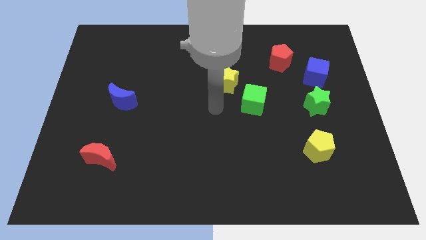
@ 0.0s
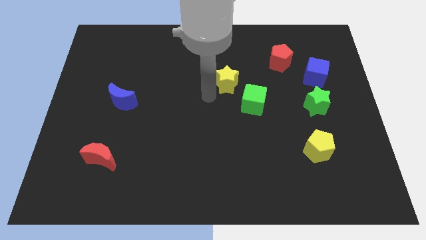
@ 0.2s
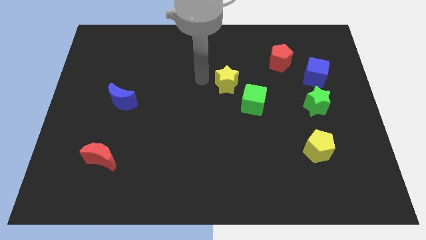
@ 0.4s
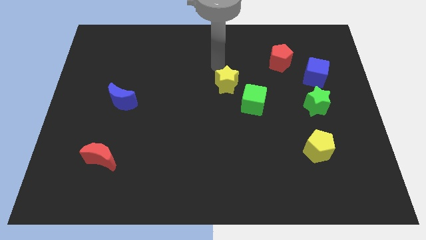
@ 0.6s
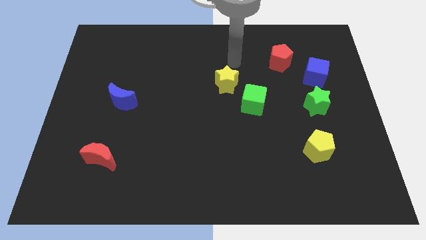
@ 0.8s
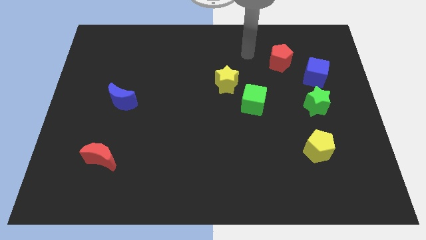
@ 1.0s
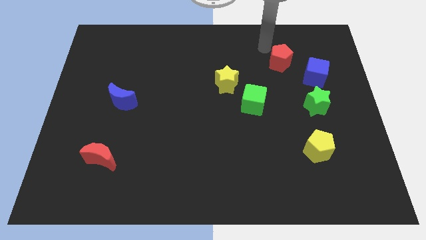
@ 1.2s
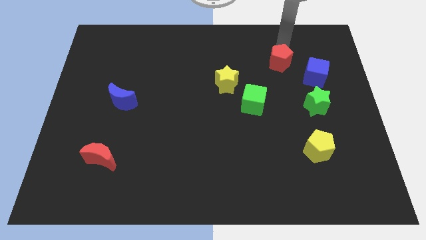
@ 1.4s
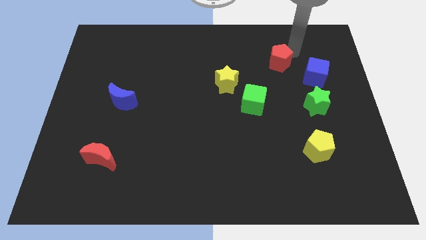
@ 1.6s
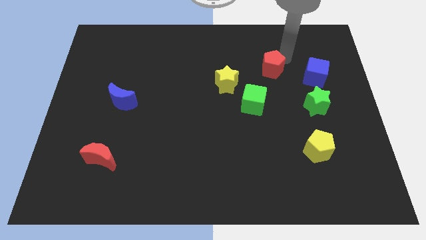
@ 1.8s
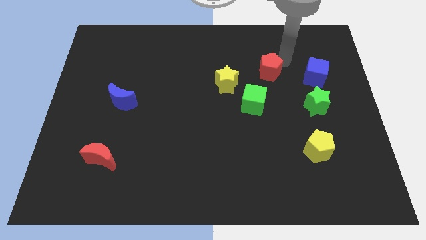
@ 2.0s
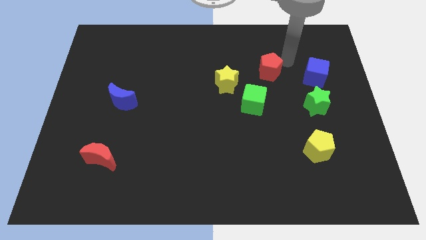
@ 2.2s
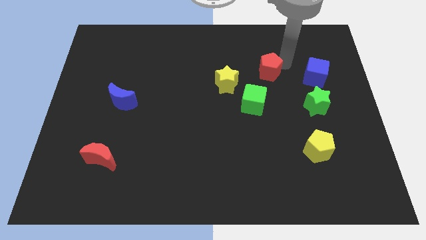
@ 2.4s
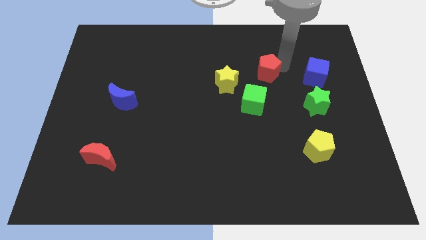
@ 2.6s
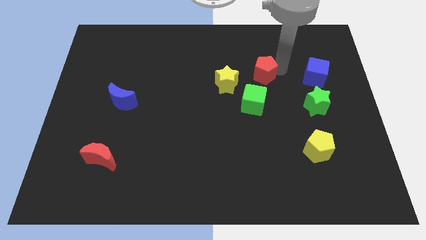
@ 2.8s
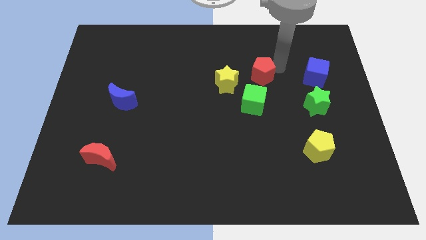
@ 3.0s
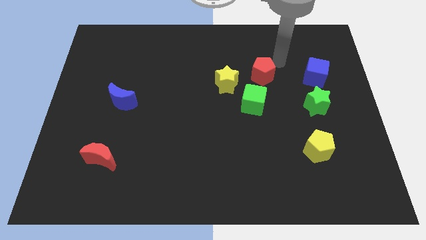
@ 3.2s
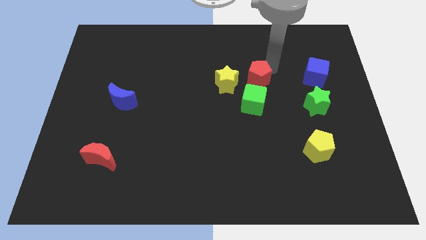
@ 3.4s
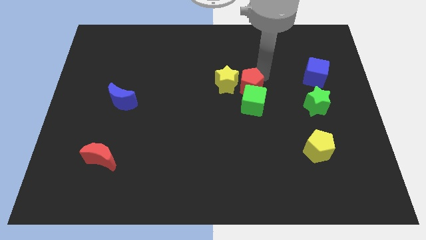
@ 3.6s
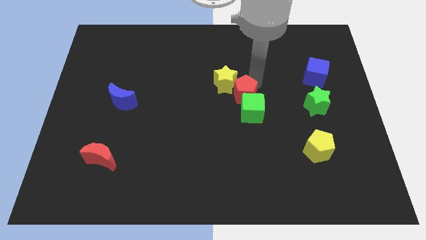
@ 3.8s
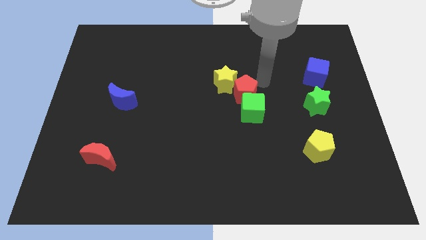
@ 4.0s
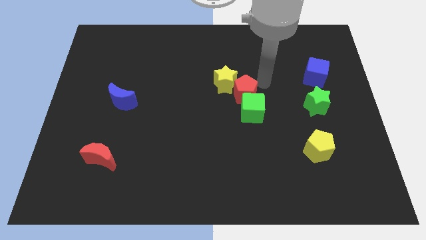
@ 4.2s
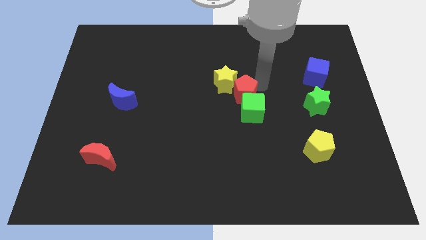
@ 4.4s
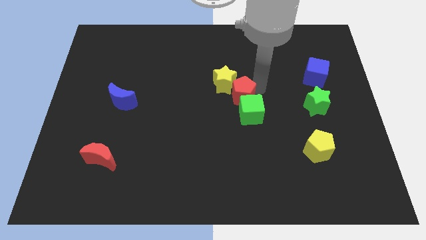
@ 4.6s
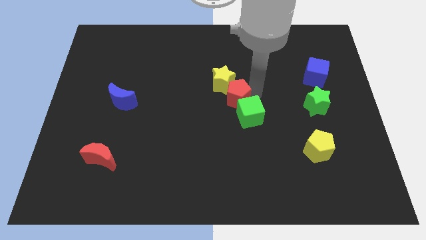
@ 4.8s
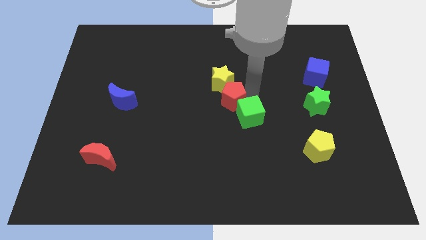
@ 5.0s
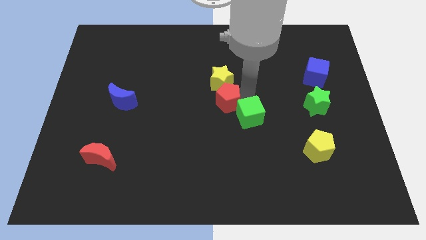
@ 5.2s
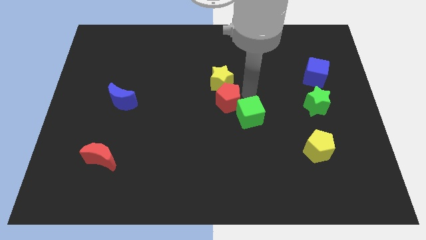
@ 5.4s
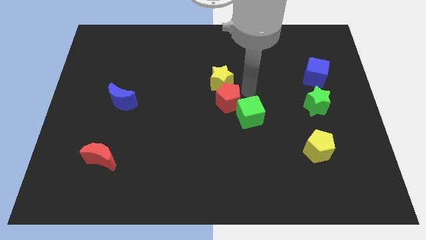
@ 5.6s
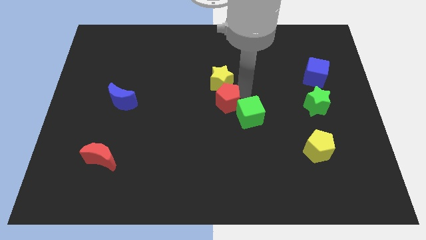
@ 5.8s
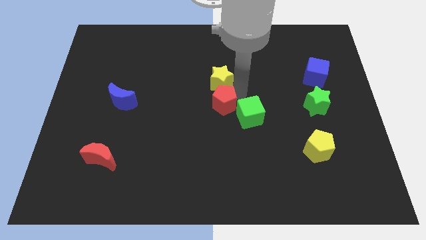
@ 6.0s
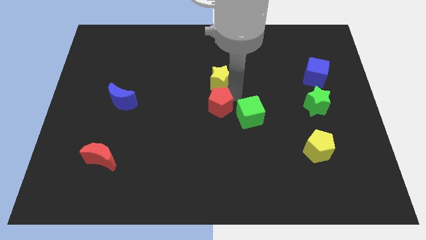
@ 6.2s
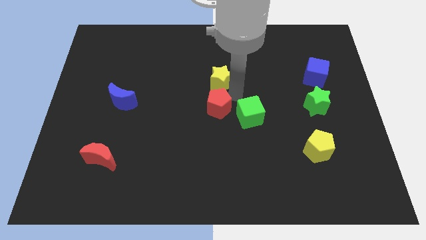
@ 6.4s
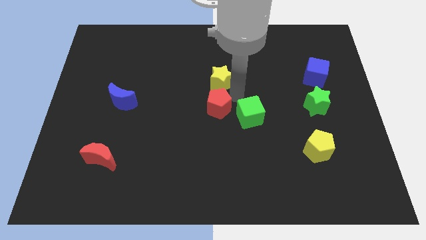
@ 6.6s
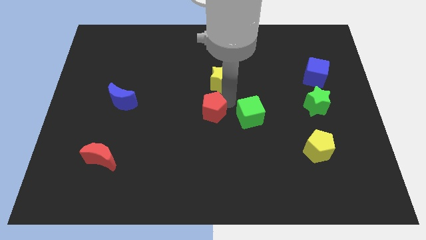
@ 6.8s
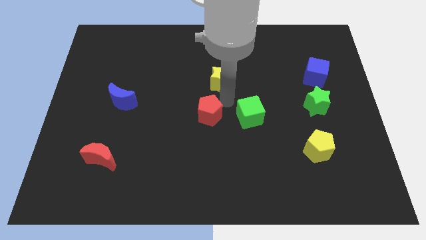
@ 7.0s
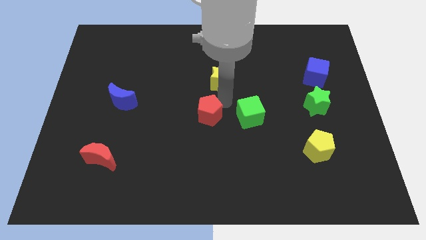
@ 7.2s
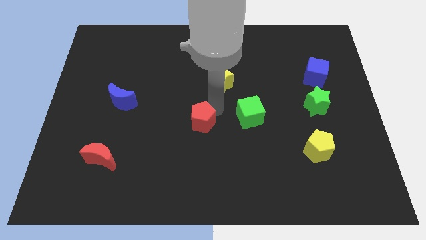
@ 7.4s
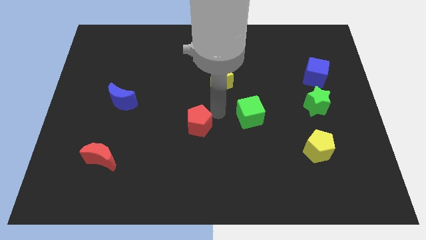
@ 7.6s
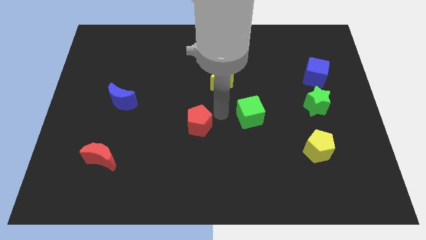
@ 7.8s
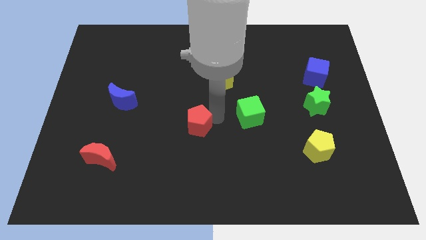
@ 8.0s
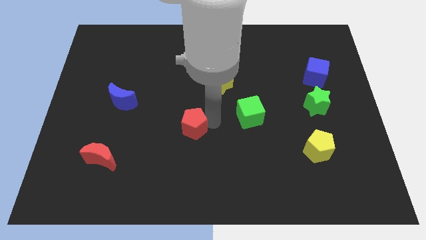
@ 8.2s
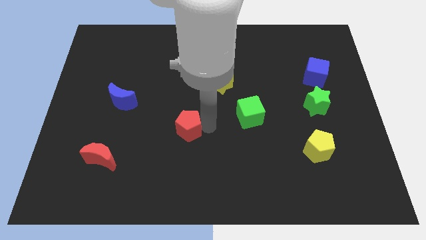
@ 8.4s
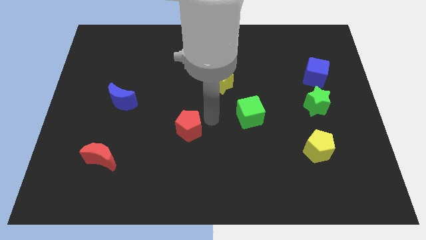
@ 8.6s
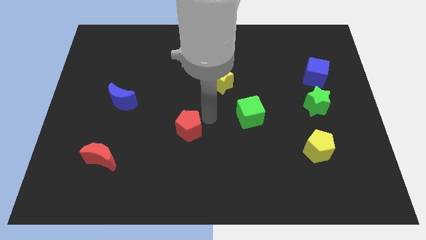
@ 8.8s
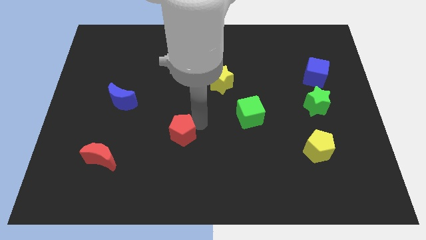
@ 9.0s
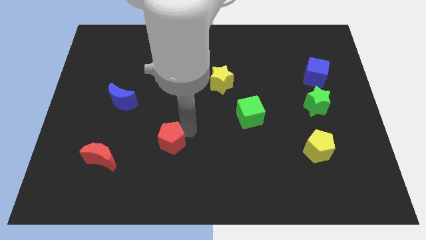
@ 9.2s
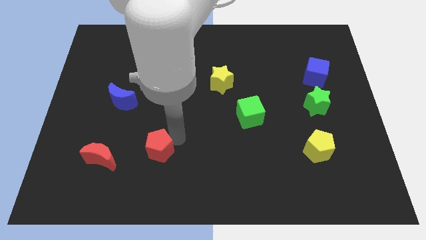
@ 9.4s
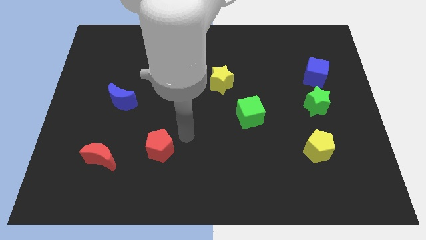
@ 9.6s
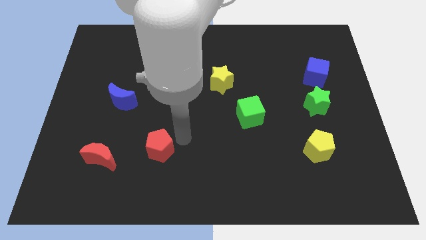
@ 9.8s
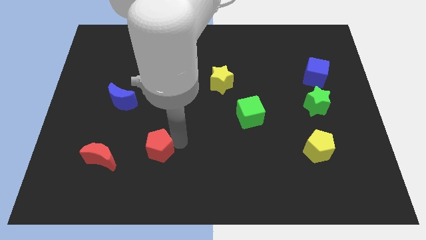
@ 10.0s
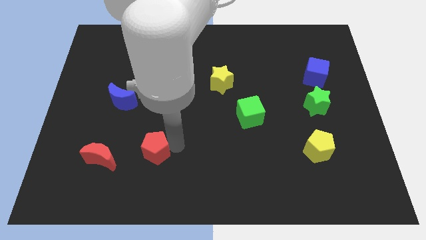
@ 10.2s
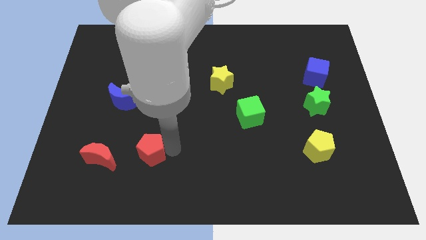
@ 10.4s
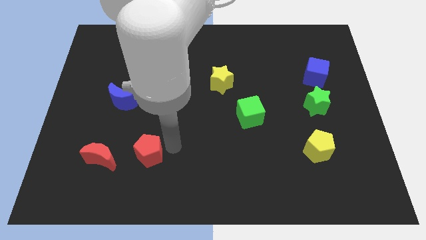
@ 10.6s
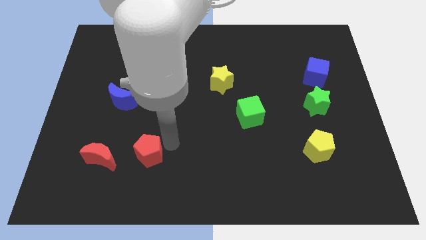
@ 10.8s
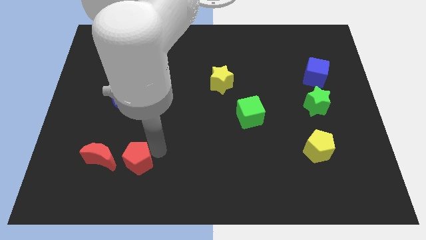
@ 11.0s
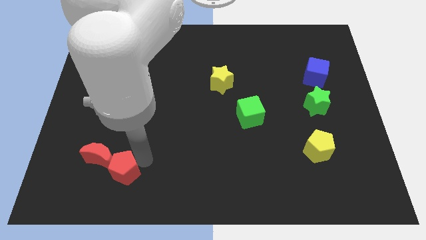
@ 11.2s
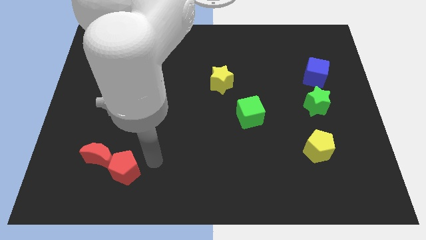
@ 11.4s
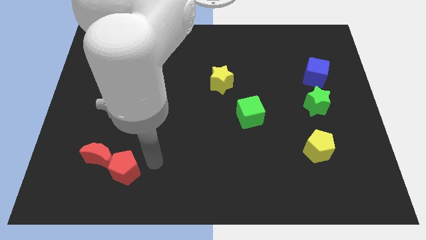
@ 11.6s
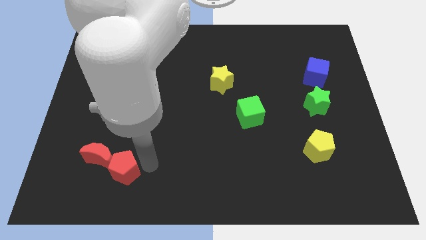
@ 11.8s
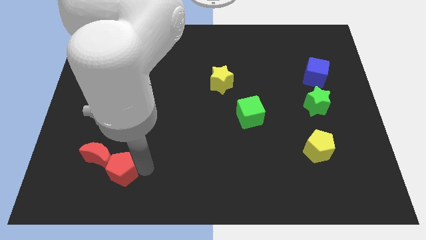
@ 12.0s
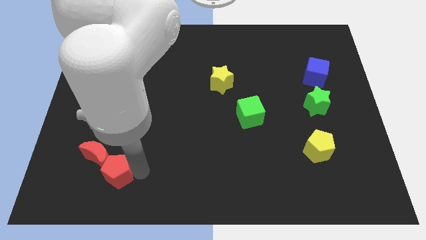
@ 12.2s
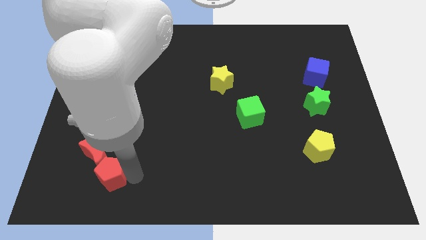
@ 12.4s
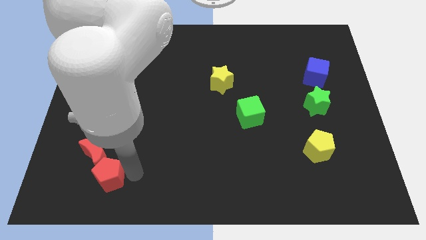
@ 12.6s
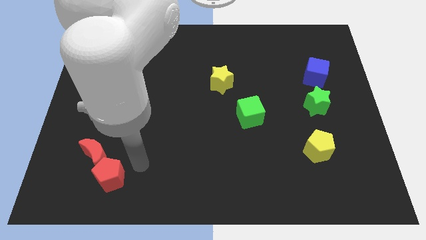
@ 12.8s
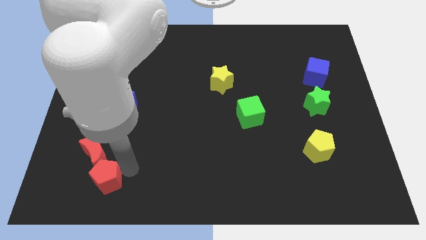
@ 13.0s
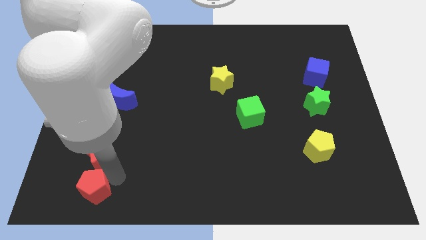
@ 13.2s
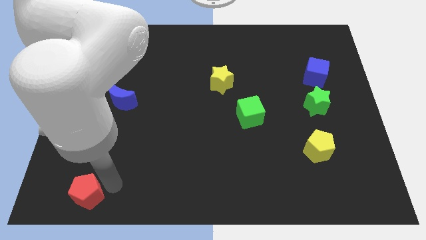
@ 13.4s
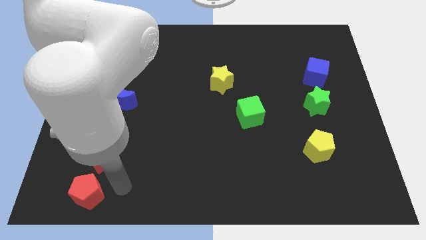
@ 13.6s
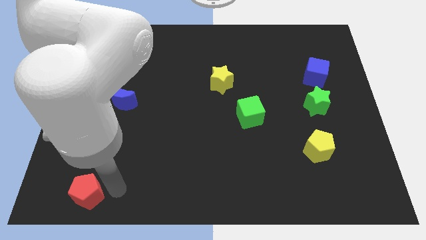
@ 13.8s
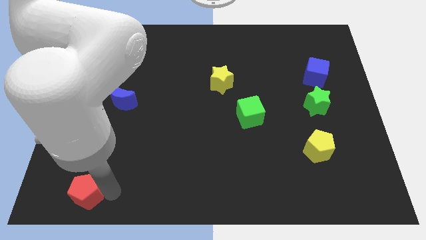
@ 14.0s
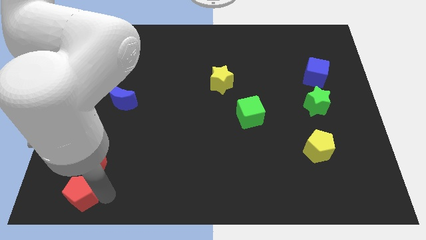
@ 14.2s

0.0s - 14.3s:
put the red pentagon to the bottom left
